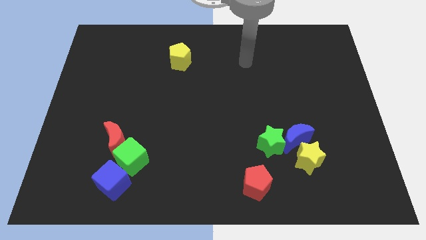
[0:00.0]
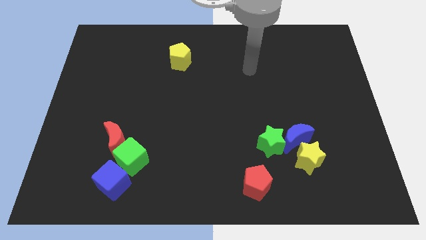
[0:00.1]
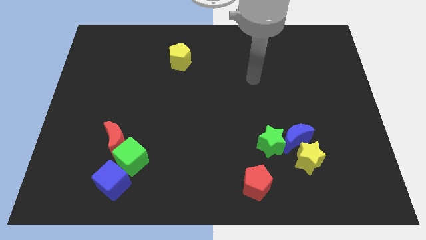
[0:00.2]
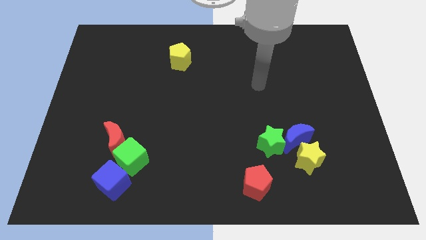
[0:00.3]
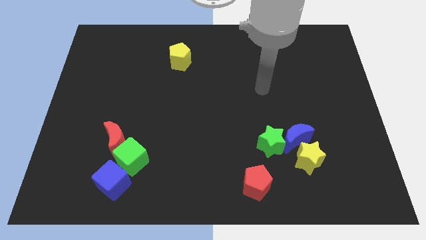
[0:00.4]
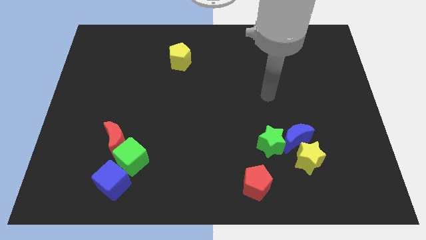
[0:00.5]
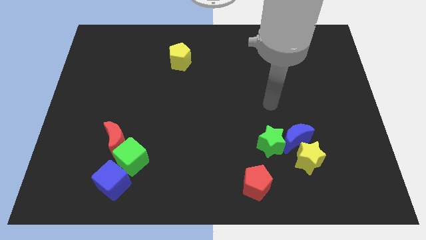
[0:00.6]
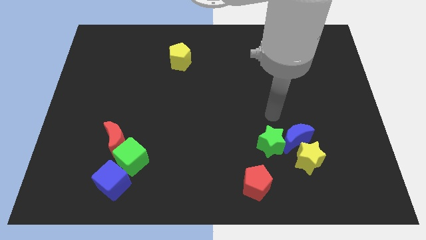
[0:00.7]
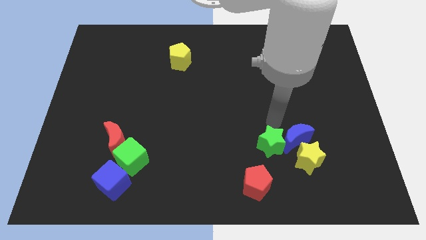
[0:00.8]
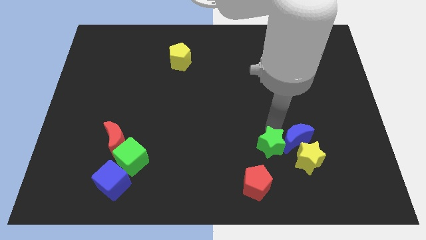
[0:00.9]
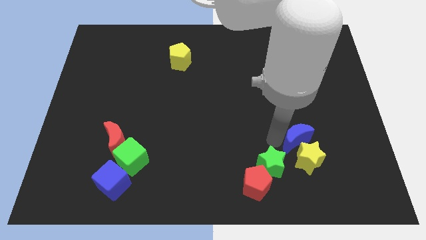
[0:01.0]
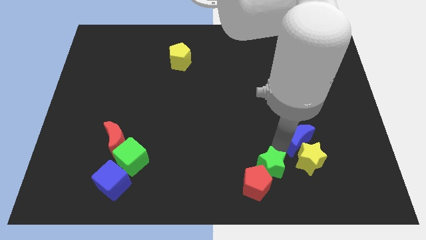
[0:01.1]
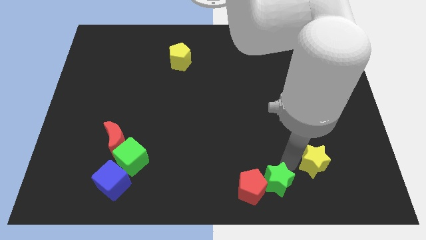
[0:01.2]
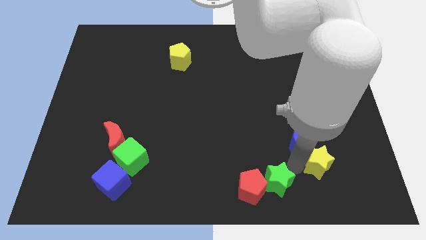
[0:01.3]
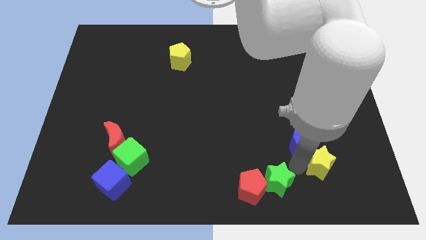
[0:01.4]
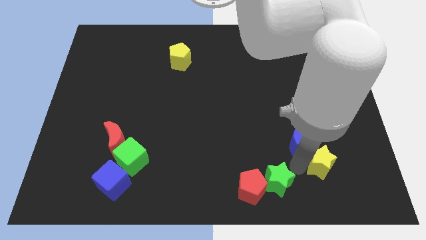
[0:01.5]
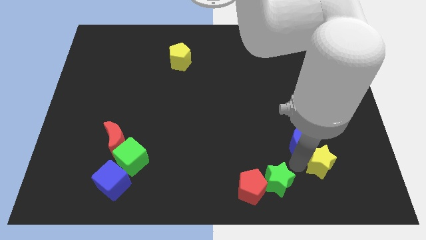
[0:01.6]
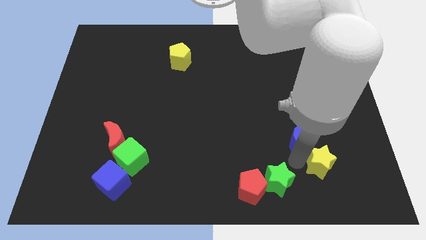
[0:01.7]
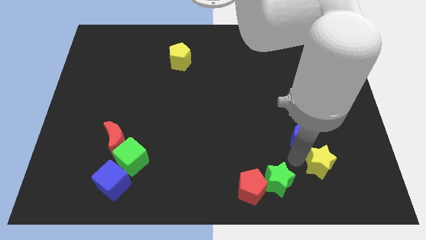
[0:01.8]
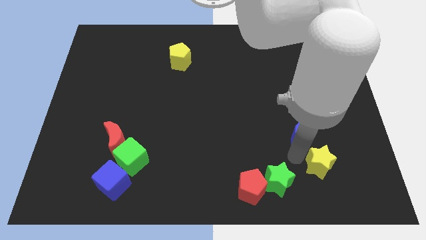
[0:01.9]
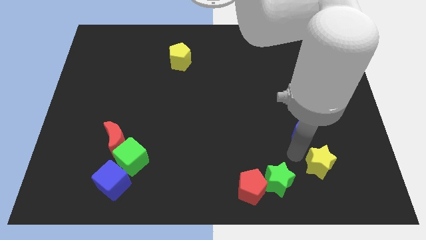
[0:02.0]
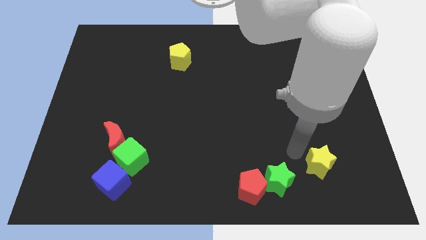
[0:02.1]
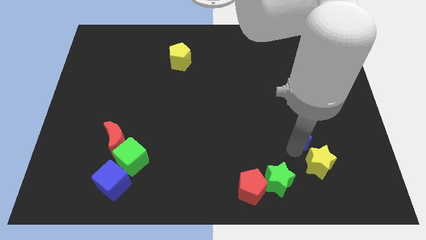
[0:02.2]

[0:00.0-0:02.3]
pull the blue moon apart from the green star and yellow star

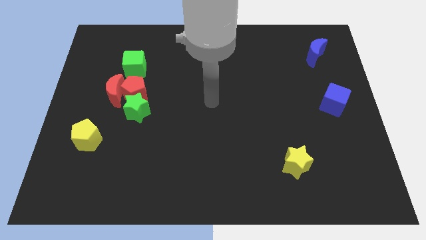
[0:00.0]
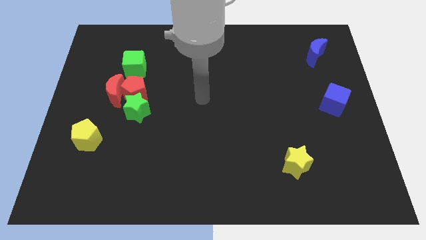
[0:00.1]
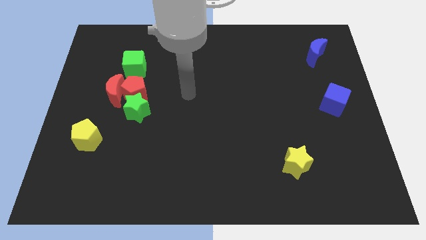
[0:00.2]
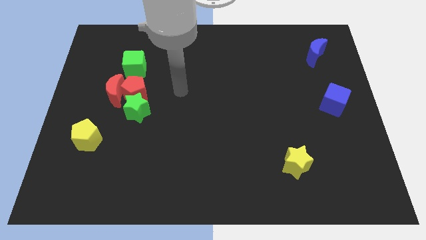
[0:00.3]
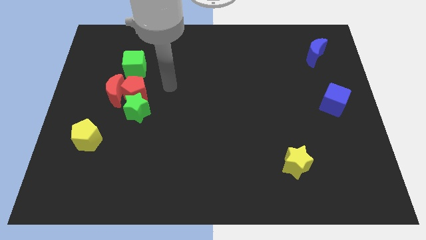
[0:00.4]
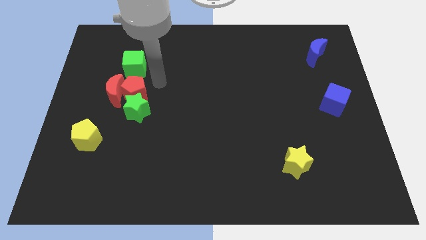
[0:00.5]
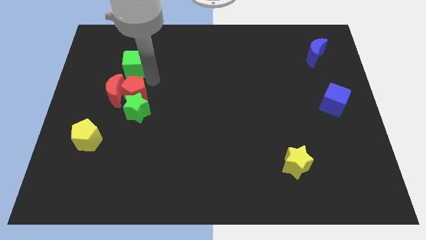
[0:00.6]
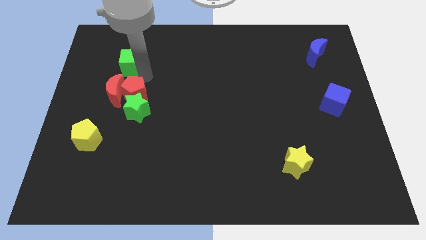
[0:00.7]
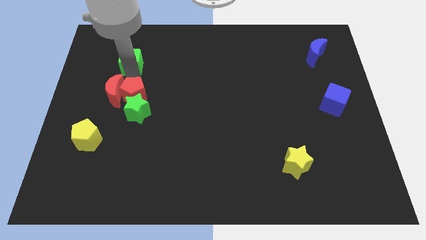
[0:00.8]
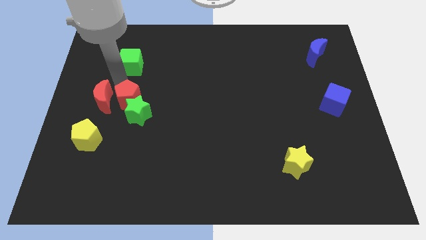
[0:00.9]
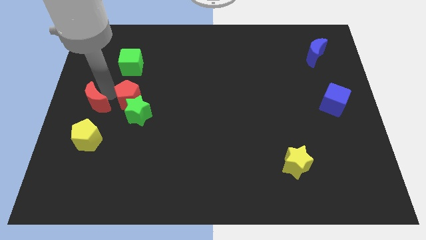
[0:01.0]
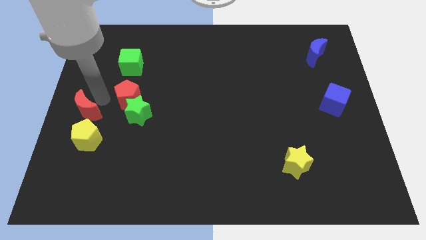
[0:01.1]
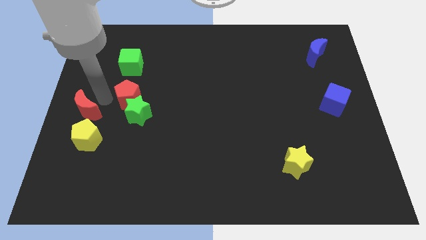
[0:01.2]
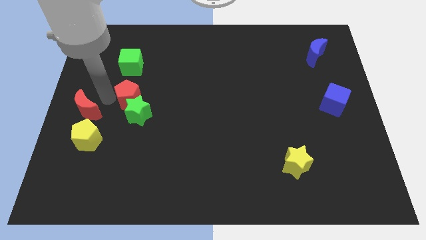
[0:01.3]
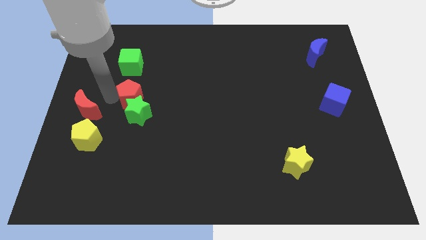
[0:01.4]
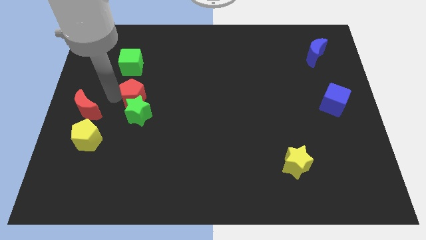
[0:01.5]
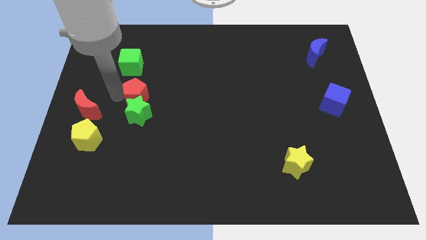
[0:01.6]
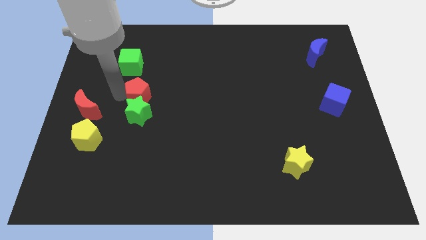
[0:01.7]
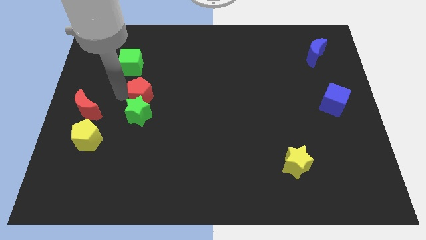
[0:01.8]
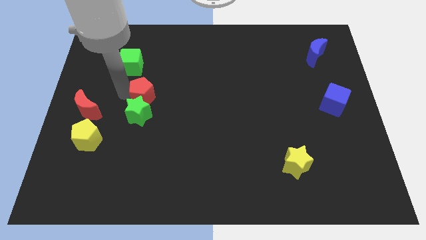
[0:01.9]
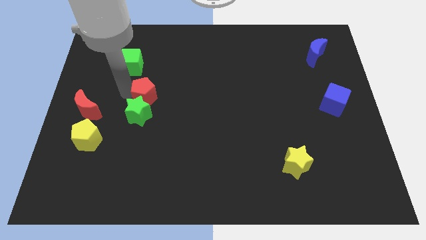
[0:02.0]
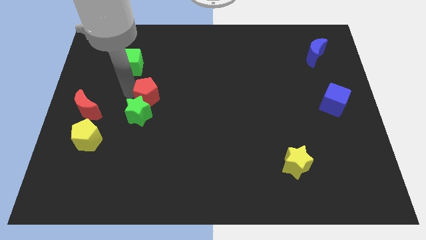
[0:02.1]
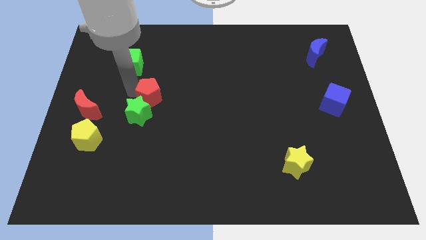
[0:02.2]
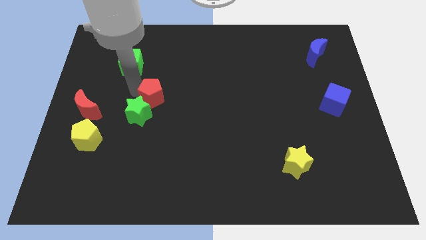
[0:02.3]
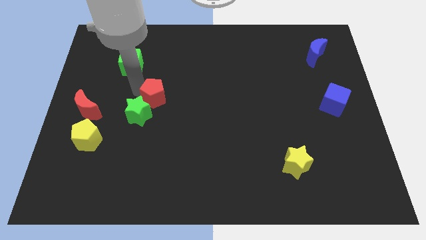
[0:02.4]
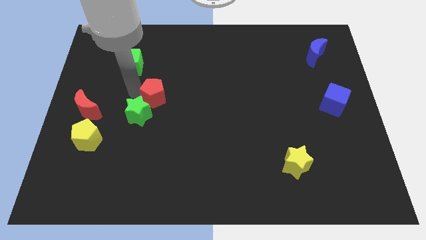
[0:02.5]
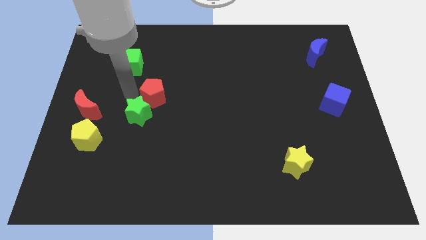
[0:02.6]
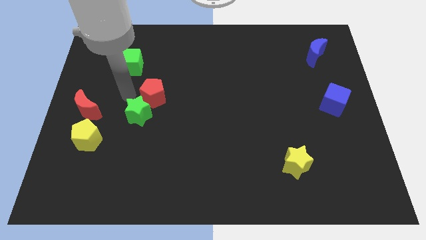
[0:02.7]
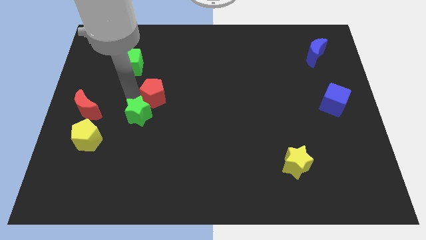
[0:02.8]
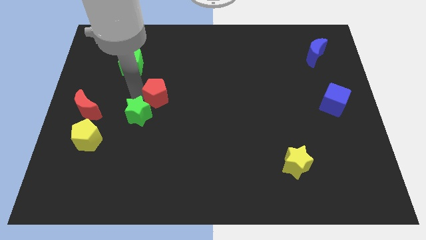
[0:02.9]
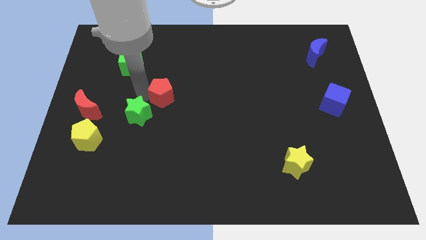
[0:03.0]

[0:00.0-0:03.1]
move the red pentagon away from the red moon, green star, and green cube

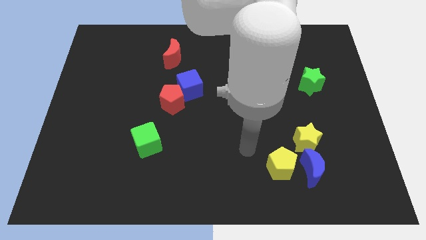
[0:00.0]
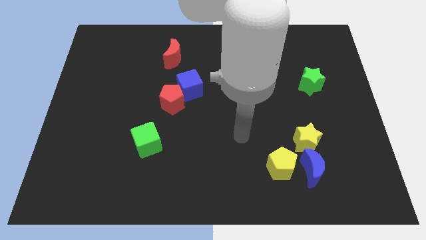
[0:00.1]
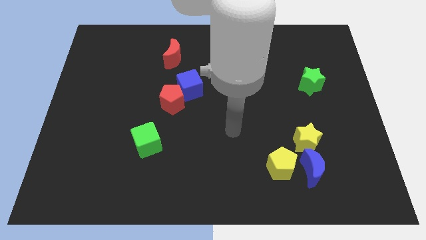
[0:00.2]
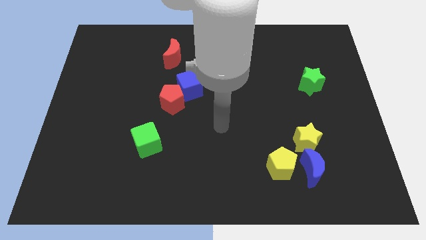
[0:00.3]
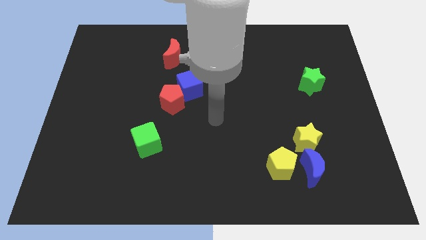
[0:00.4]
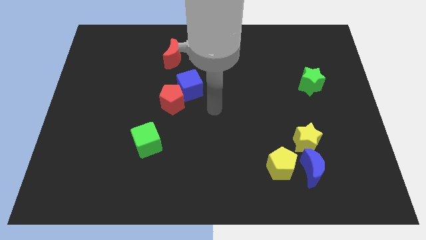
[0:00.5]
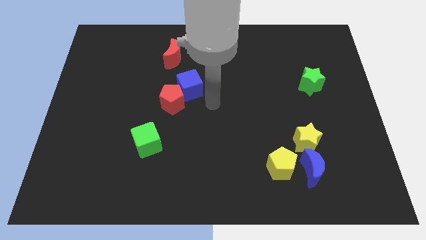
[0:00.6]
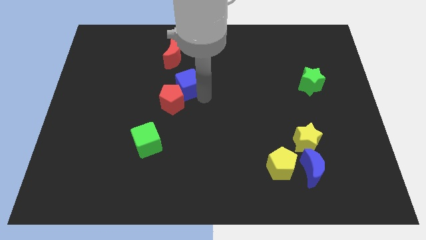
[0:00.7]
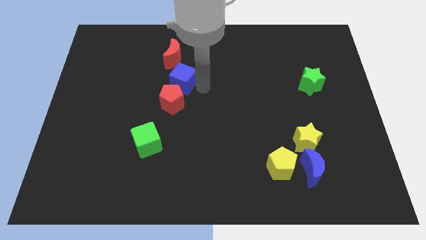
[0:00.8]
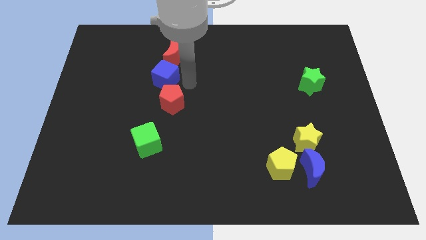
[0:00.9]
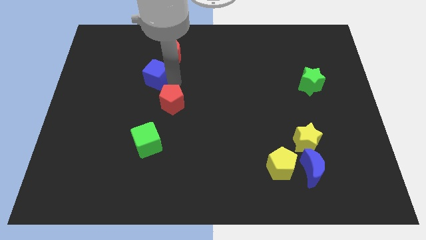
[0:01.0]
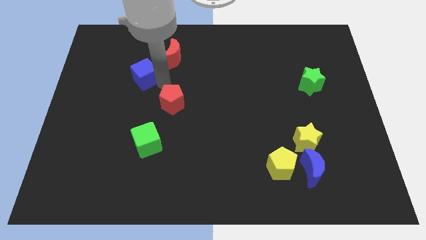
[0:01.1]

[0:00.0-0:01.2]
pull the red pentagon apart from the blue cube

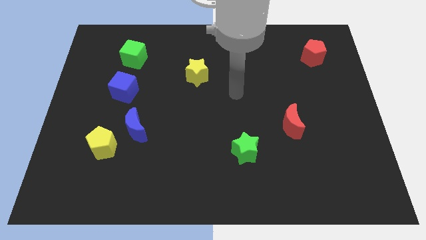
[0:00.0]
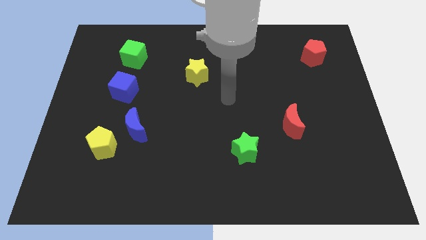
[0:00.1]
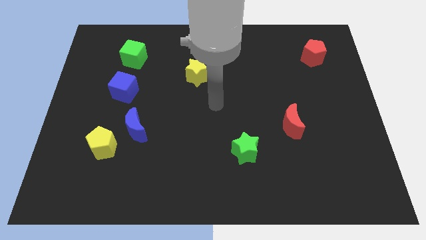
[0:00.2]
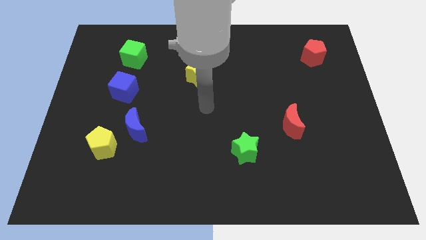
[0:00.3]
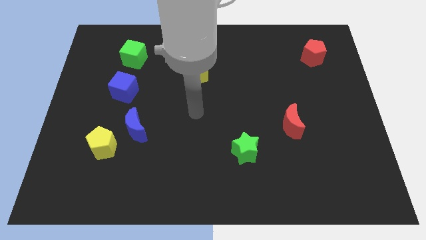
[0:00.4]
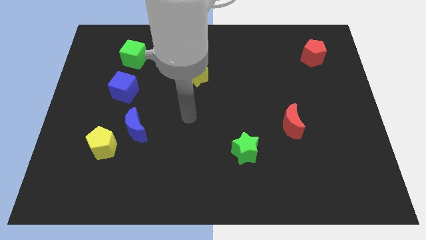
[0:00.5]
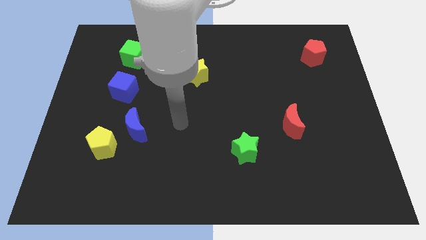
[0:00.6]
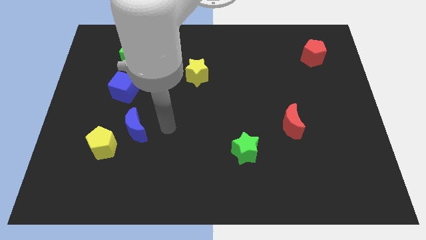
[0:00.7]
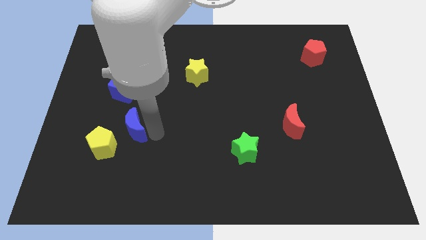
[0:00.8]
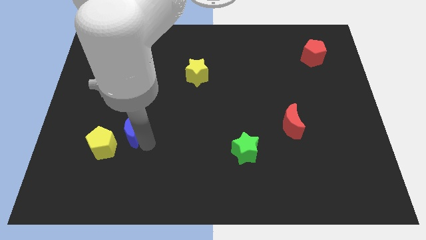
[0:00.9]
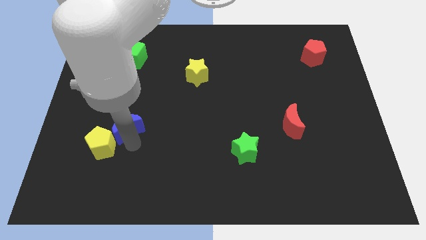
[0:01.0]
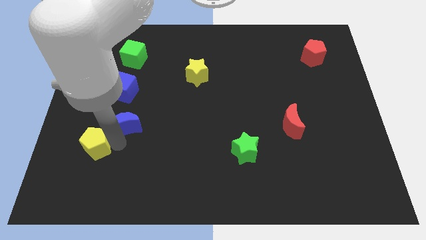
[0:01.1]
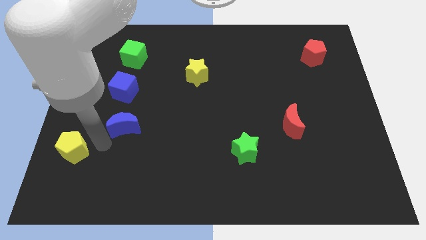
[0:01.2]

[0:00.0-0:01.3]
move the blue moon away from the yellow pentagon

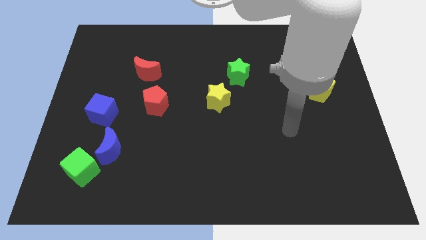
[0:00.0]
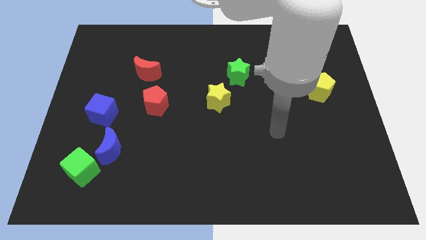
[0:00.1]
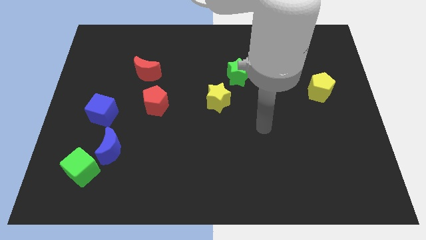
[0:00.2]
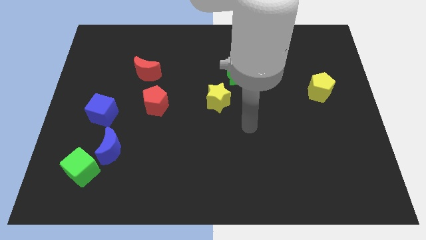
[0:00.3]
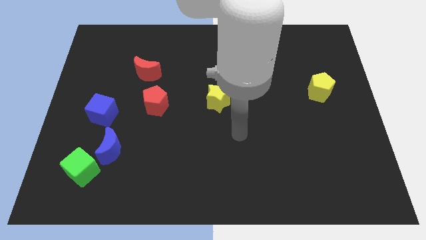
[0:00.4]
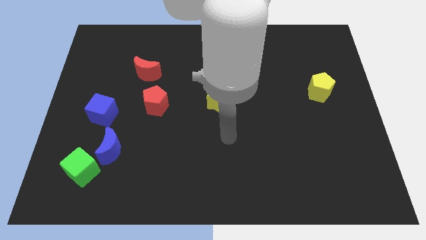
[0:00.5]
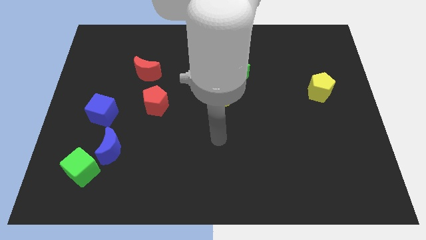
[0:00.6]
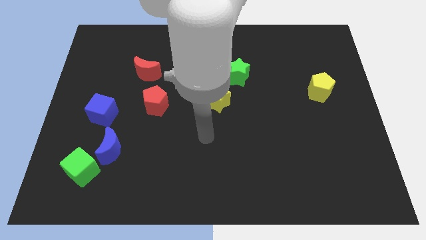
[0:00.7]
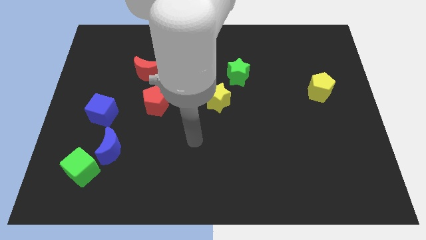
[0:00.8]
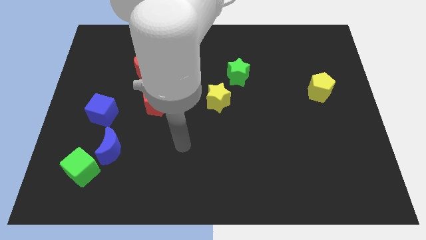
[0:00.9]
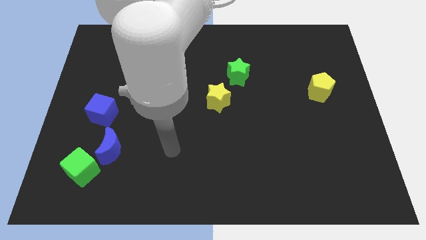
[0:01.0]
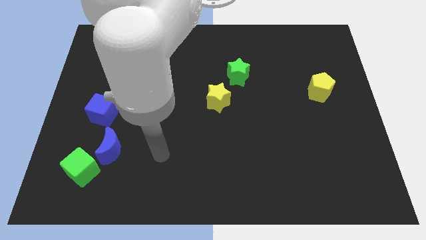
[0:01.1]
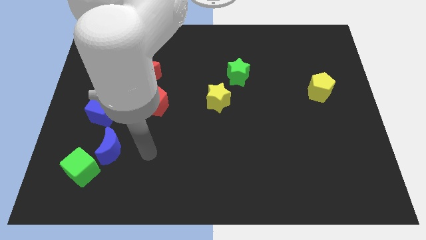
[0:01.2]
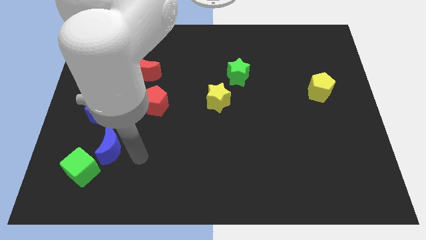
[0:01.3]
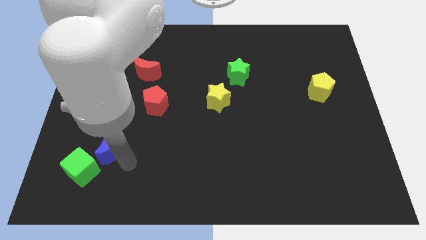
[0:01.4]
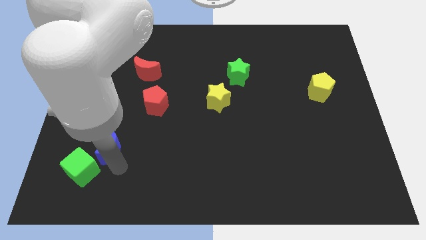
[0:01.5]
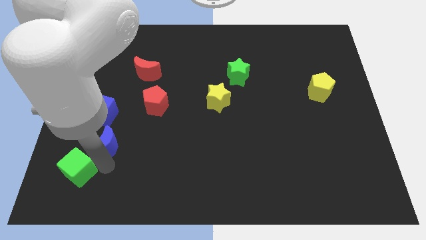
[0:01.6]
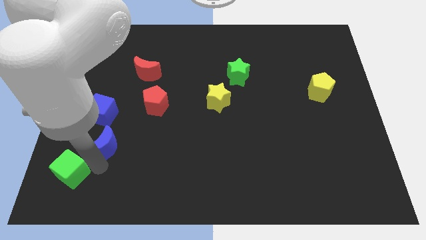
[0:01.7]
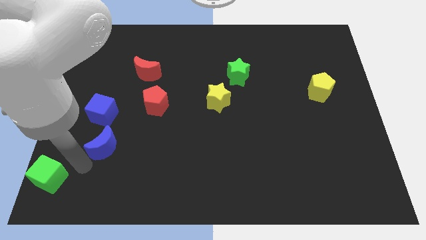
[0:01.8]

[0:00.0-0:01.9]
separate the blue moon from the green cube
